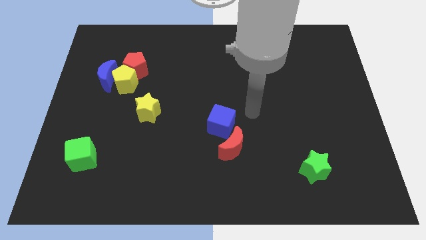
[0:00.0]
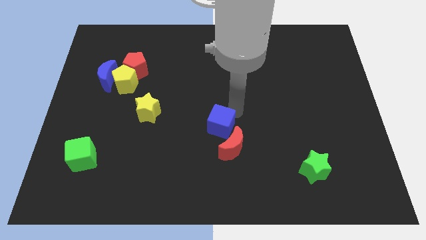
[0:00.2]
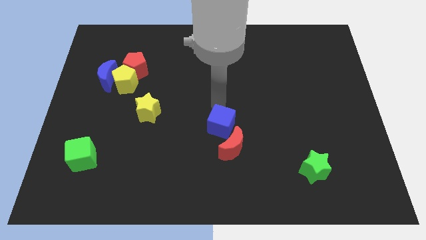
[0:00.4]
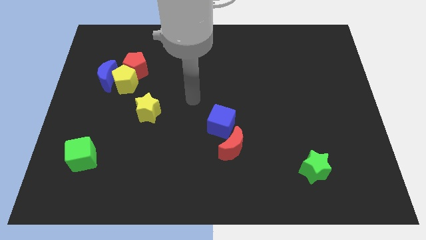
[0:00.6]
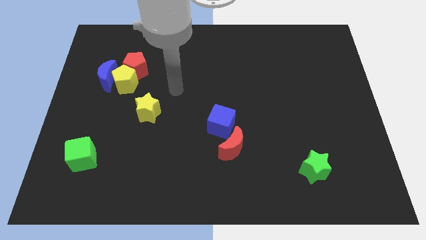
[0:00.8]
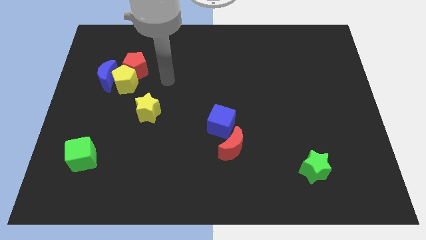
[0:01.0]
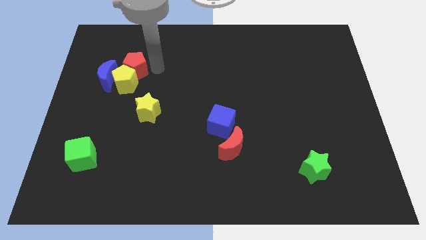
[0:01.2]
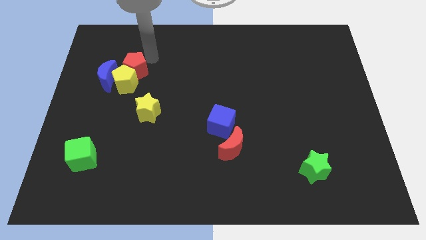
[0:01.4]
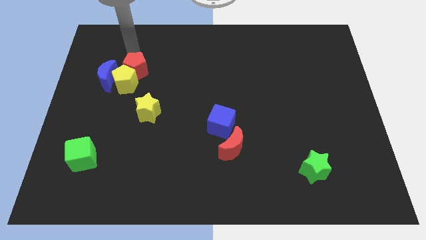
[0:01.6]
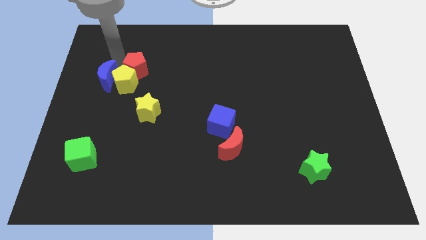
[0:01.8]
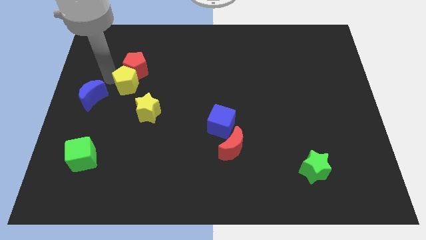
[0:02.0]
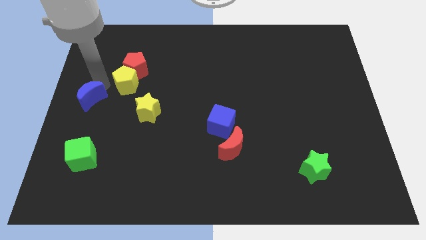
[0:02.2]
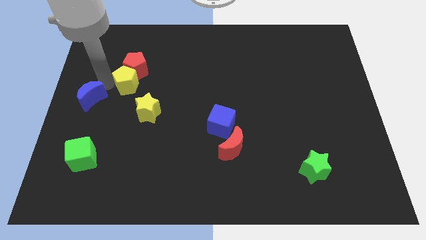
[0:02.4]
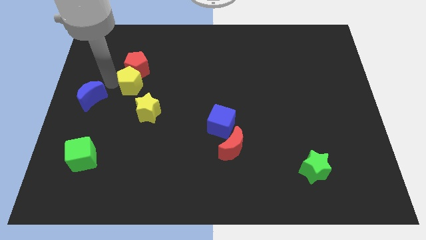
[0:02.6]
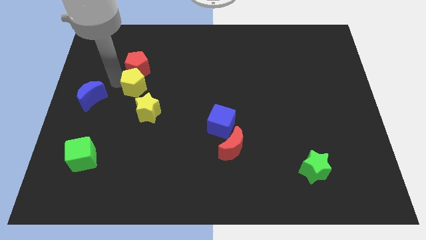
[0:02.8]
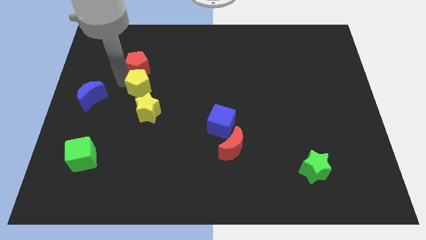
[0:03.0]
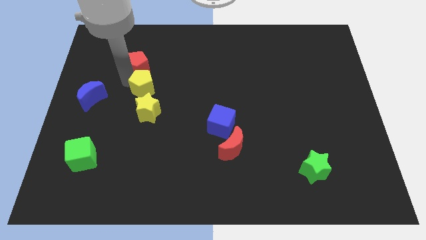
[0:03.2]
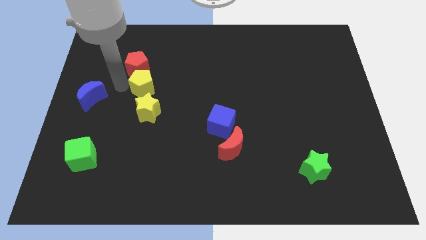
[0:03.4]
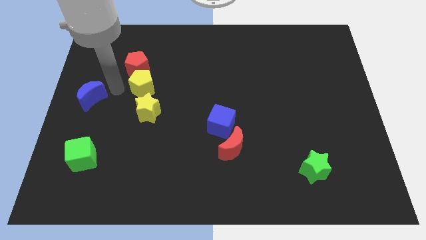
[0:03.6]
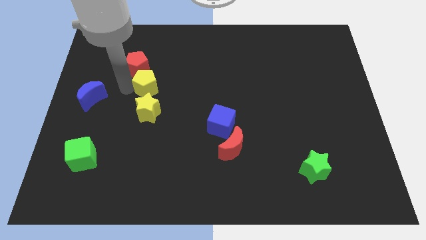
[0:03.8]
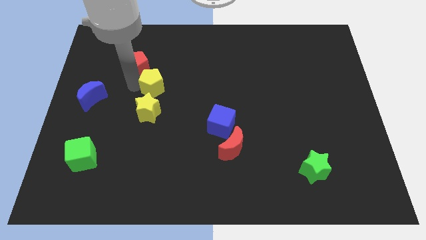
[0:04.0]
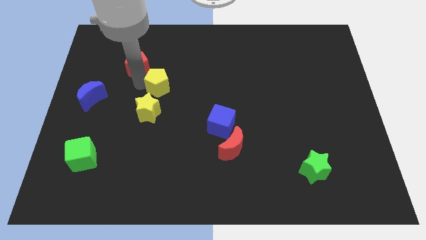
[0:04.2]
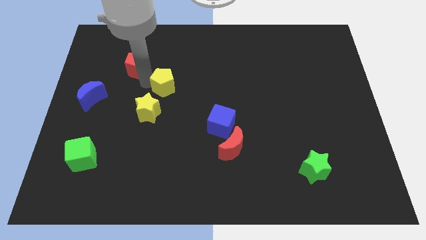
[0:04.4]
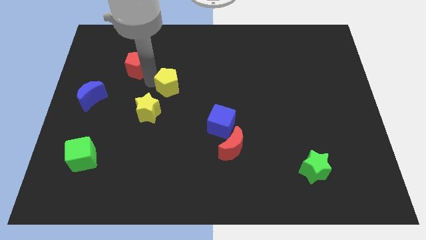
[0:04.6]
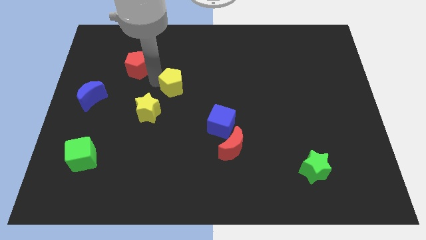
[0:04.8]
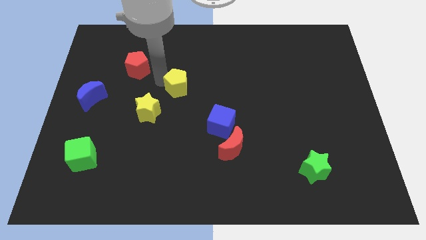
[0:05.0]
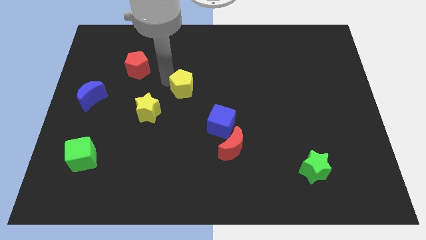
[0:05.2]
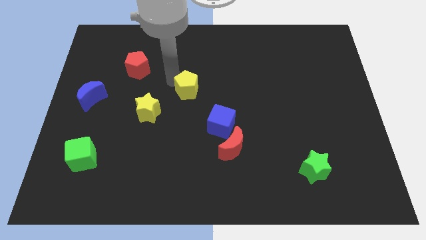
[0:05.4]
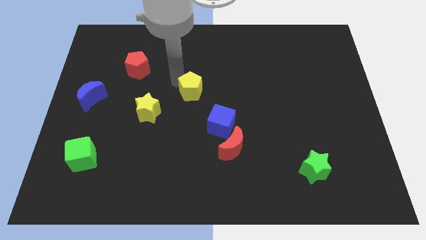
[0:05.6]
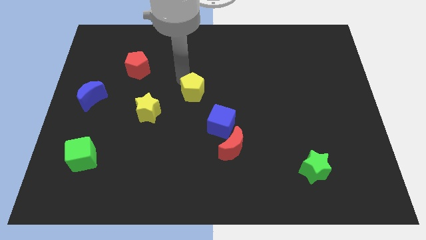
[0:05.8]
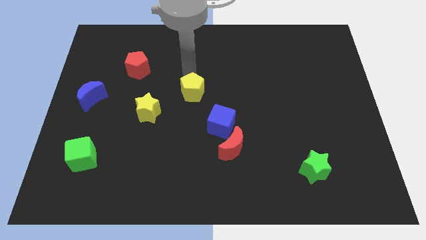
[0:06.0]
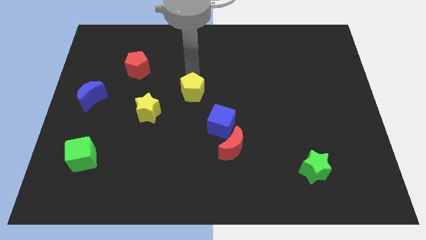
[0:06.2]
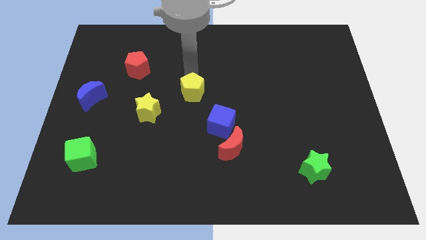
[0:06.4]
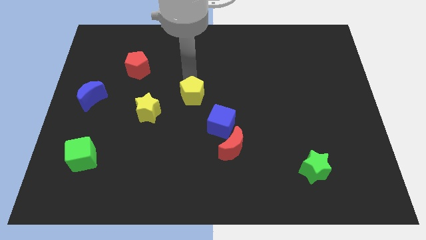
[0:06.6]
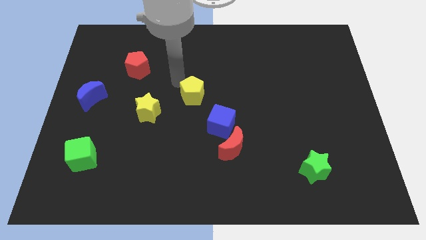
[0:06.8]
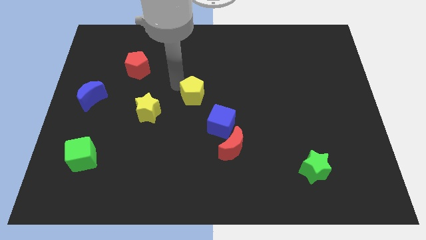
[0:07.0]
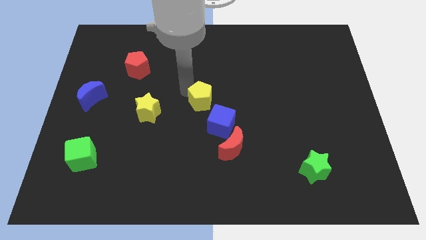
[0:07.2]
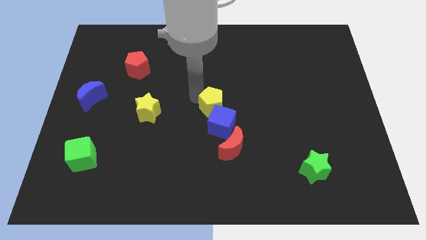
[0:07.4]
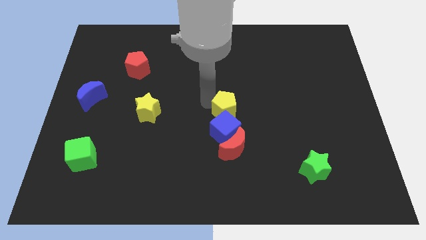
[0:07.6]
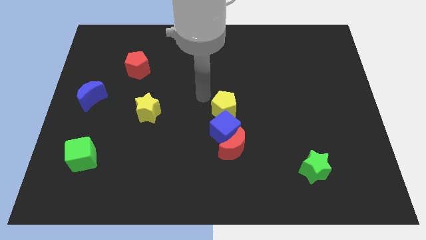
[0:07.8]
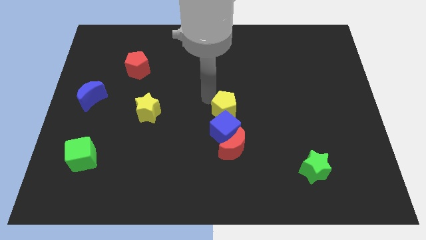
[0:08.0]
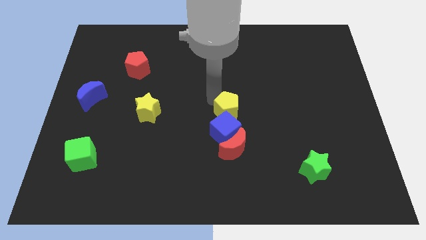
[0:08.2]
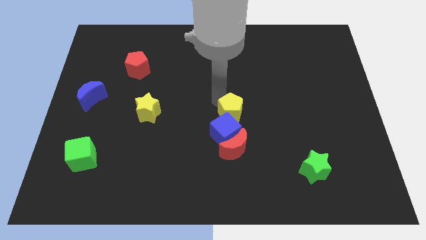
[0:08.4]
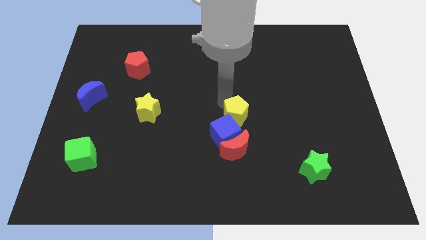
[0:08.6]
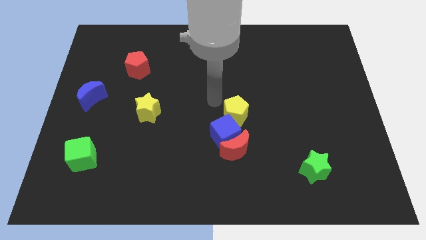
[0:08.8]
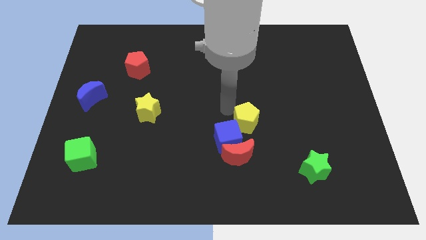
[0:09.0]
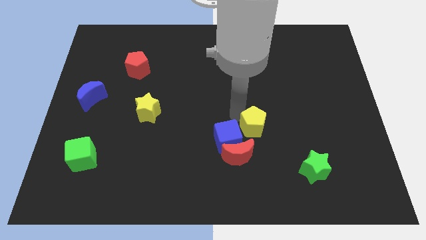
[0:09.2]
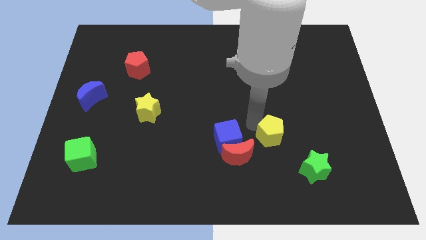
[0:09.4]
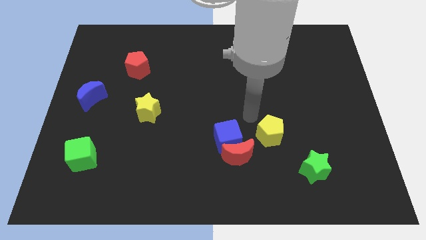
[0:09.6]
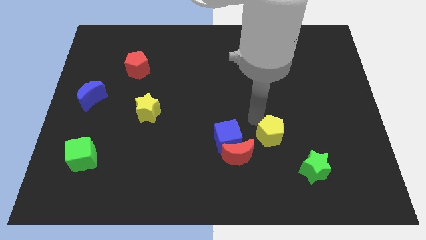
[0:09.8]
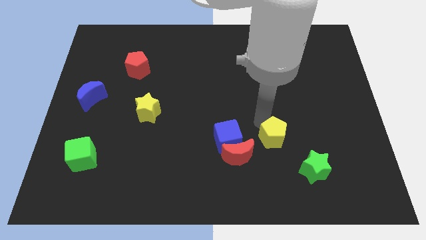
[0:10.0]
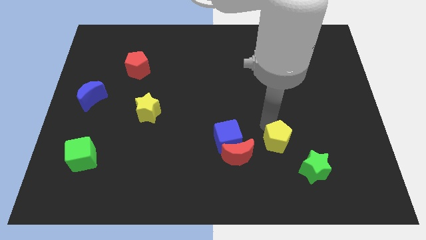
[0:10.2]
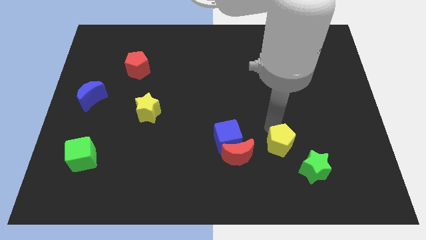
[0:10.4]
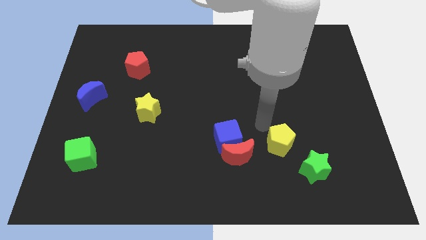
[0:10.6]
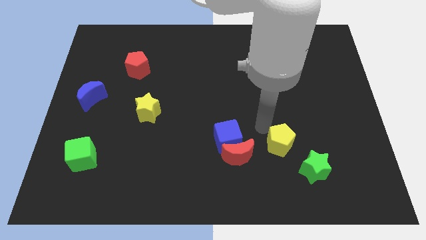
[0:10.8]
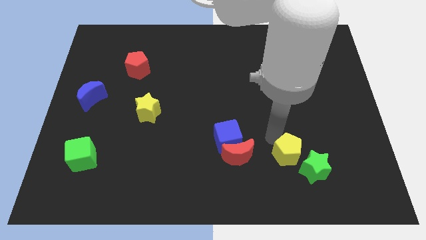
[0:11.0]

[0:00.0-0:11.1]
slide the yellow pentagon next to the green star

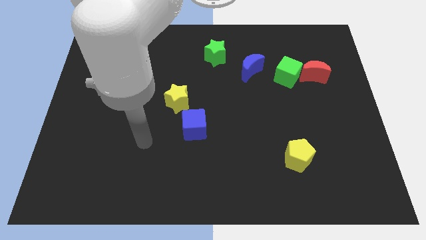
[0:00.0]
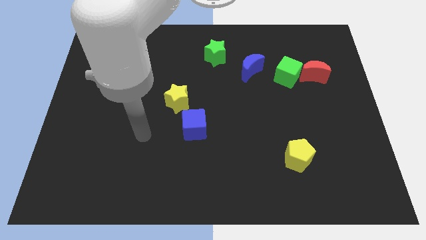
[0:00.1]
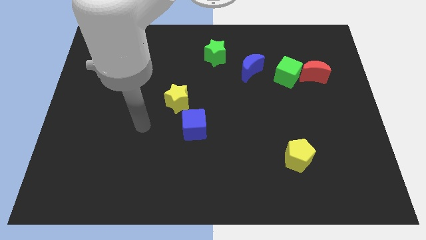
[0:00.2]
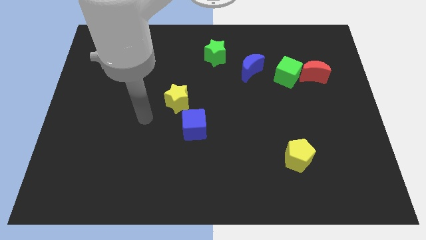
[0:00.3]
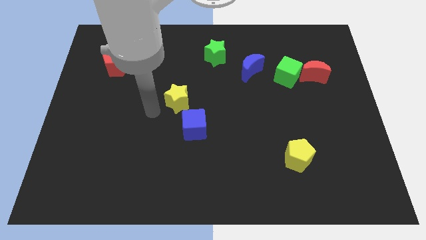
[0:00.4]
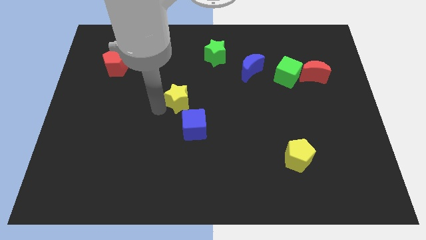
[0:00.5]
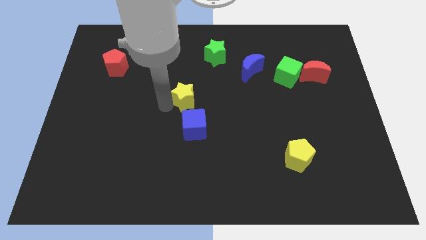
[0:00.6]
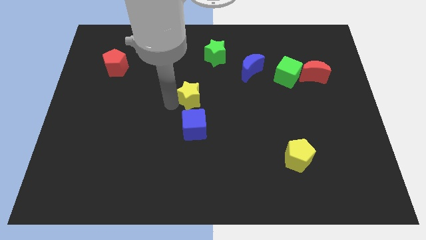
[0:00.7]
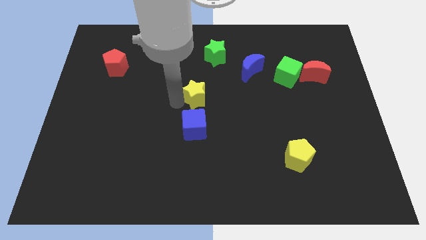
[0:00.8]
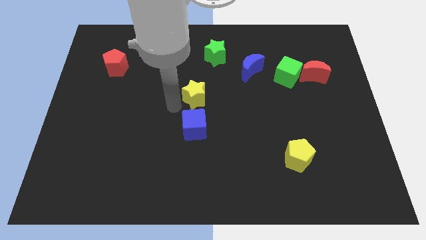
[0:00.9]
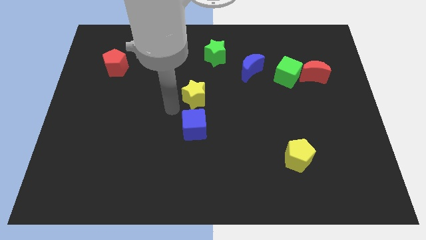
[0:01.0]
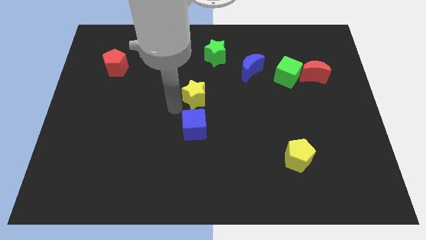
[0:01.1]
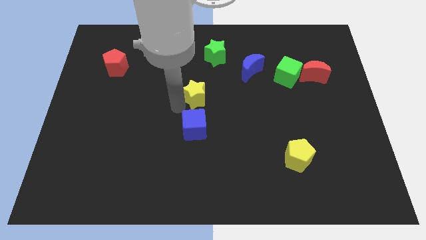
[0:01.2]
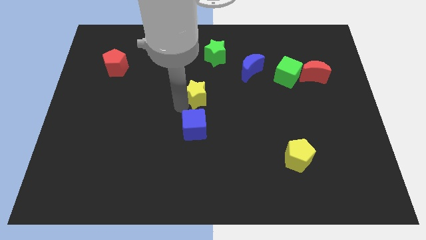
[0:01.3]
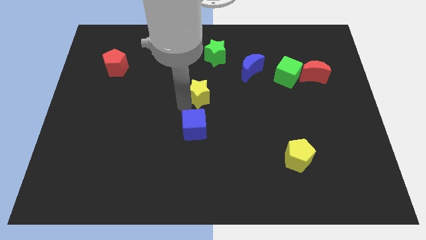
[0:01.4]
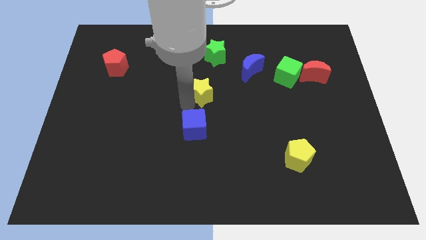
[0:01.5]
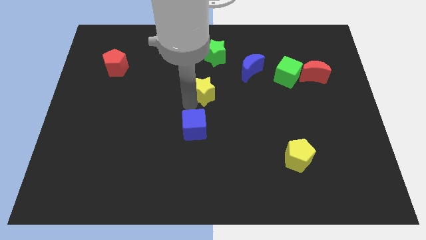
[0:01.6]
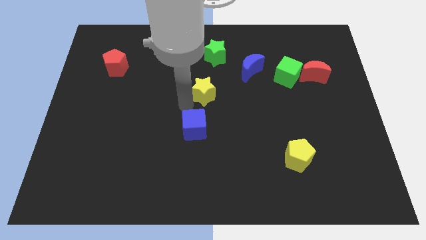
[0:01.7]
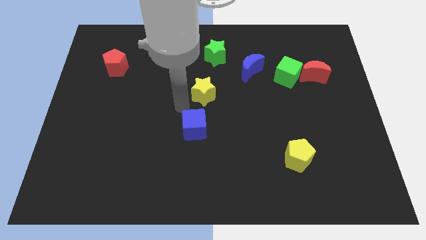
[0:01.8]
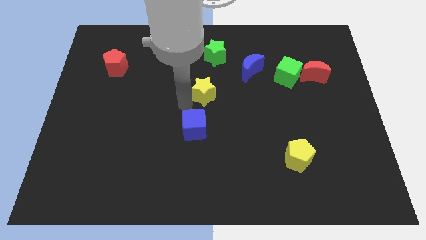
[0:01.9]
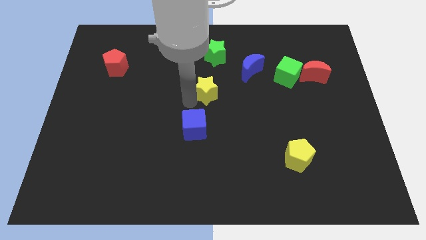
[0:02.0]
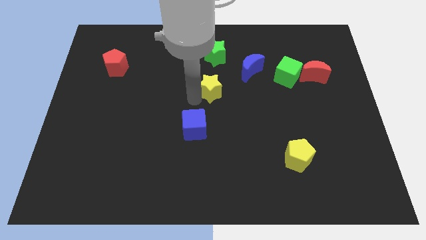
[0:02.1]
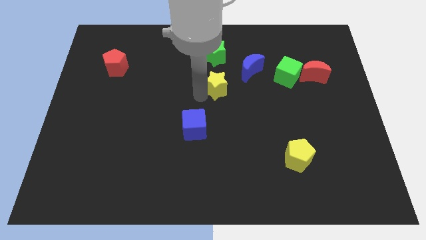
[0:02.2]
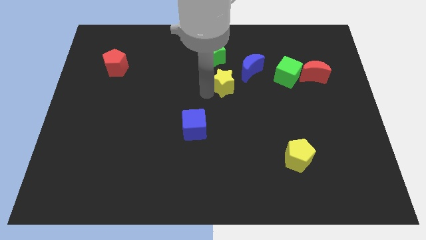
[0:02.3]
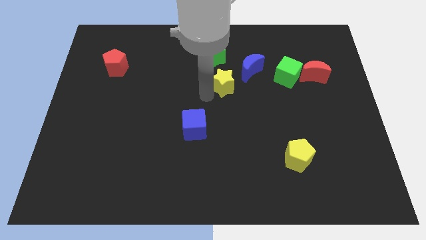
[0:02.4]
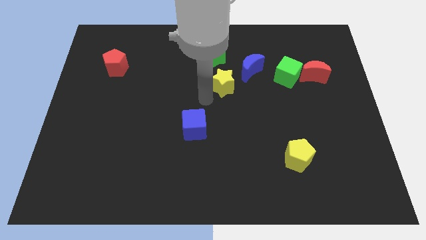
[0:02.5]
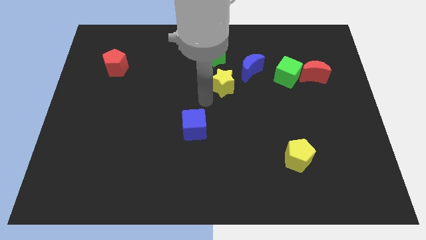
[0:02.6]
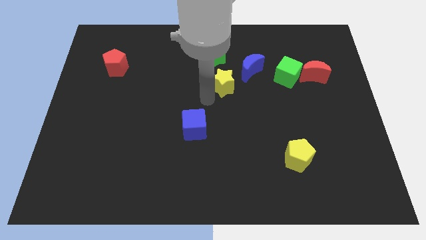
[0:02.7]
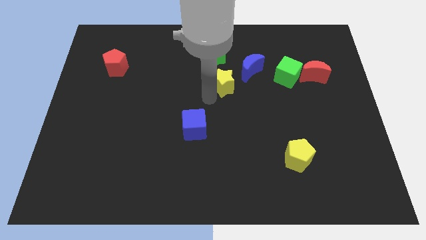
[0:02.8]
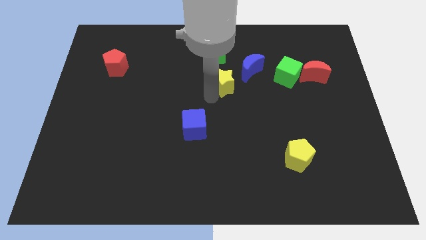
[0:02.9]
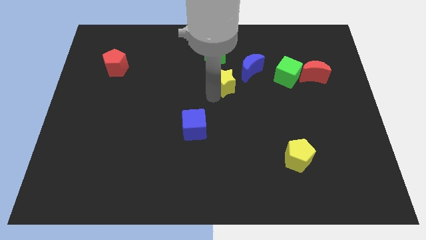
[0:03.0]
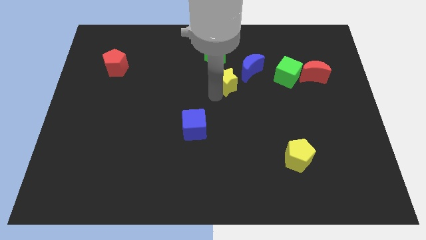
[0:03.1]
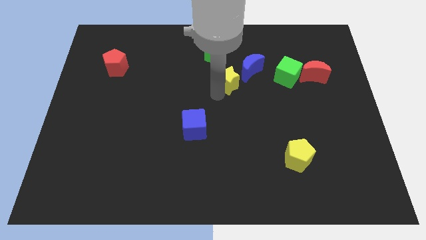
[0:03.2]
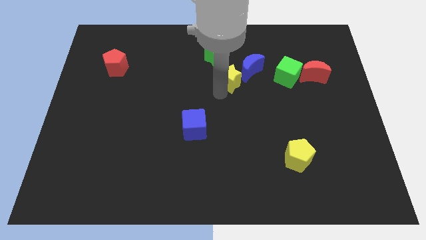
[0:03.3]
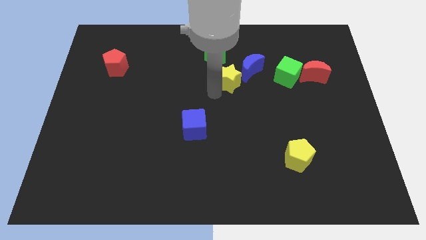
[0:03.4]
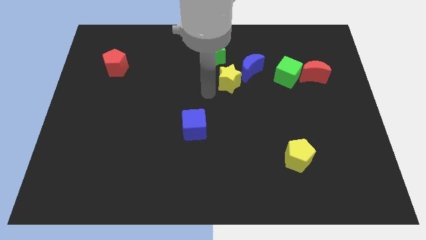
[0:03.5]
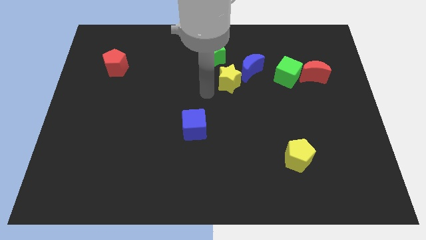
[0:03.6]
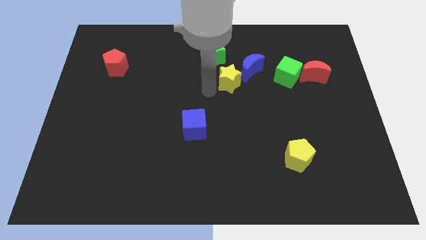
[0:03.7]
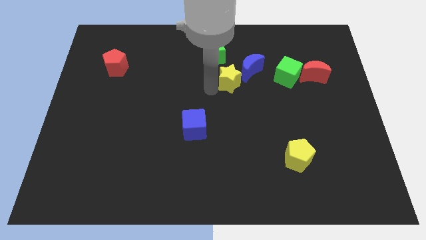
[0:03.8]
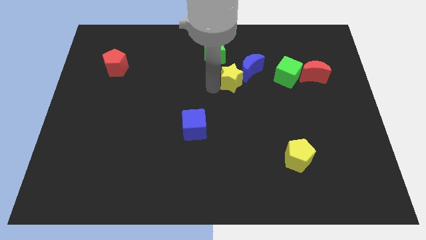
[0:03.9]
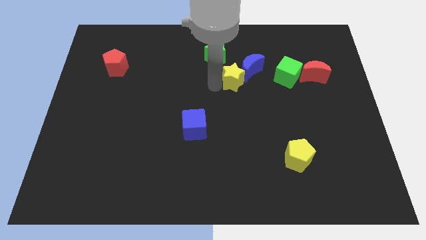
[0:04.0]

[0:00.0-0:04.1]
slide the yellow star next to the blue moon
